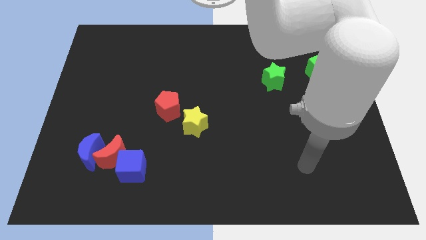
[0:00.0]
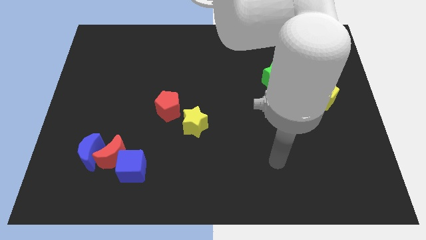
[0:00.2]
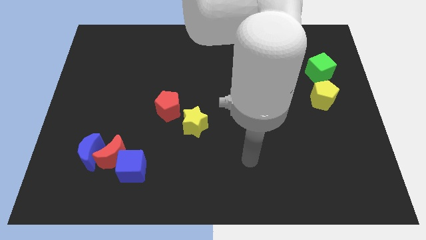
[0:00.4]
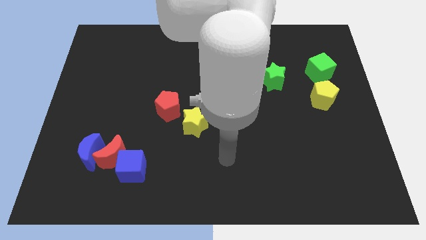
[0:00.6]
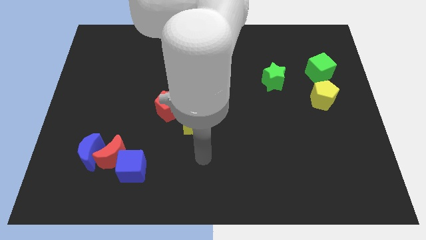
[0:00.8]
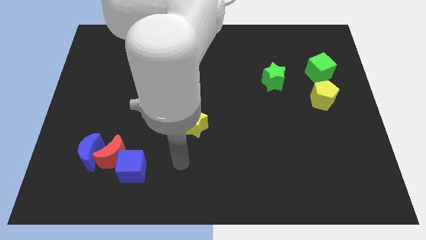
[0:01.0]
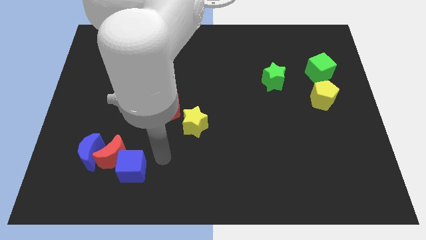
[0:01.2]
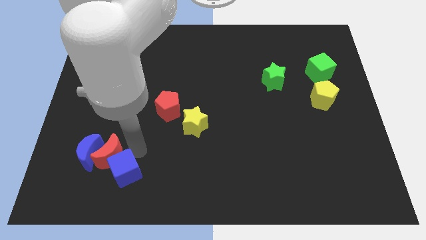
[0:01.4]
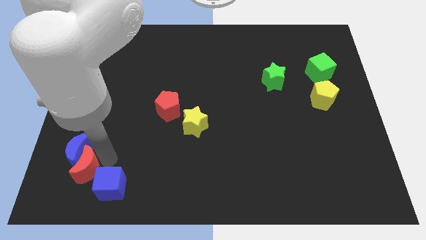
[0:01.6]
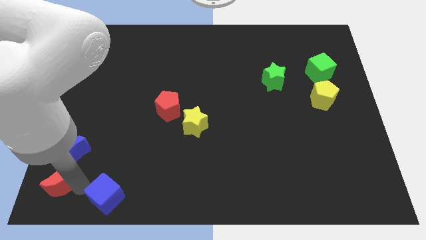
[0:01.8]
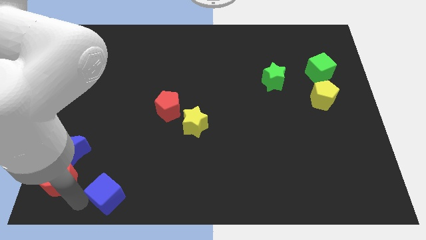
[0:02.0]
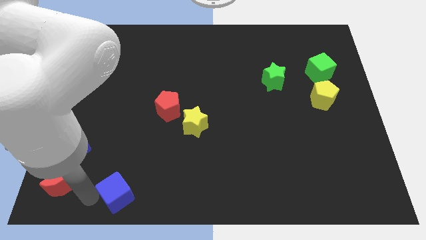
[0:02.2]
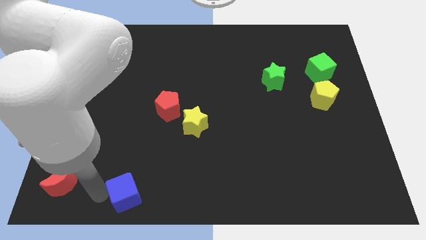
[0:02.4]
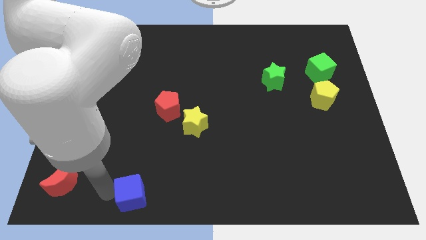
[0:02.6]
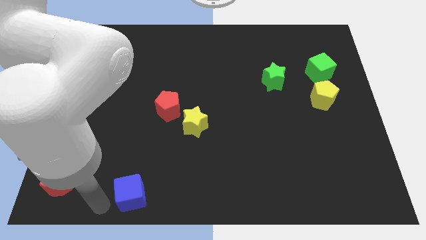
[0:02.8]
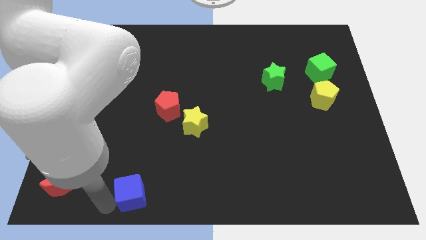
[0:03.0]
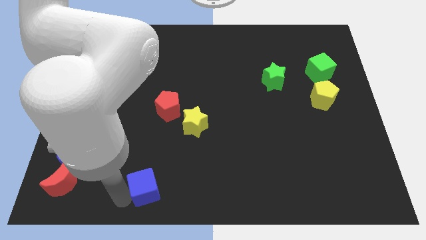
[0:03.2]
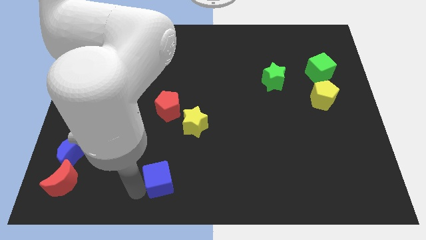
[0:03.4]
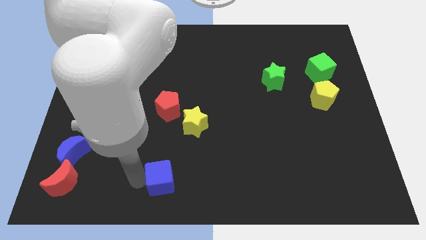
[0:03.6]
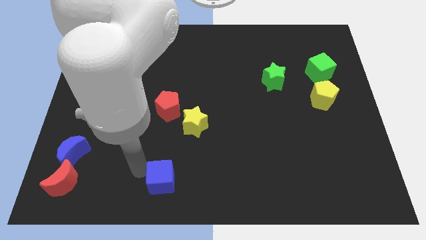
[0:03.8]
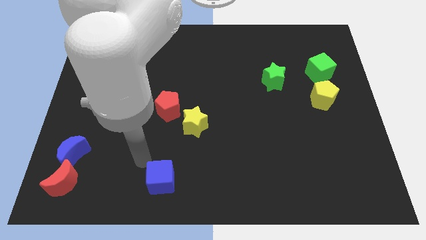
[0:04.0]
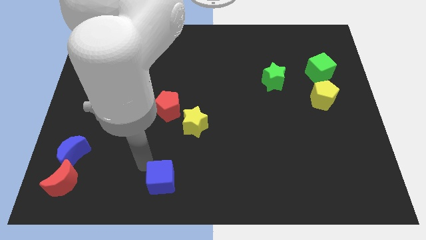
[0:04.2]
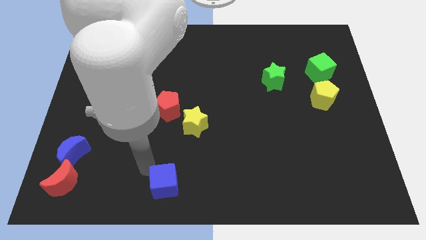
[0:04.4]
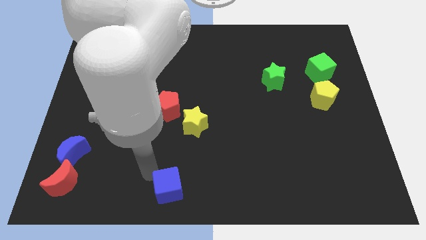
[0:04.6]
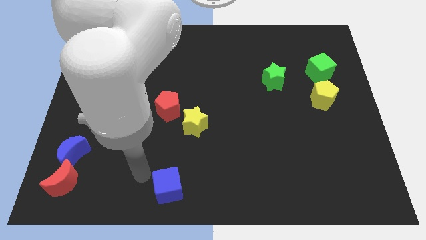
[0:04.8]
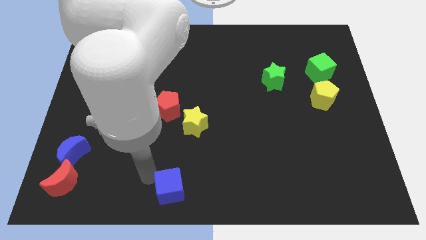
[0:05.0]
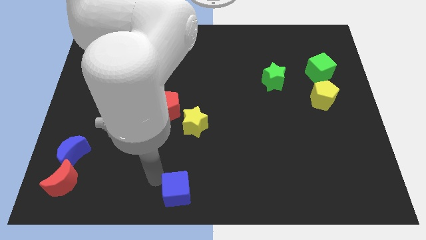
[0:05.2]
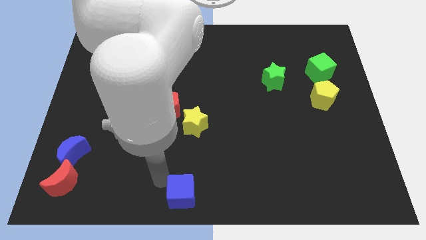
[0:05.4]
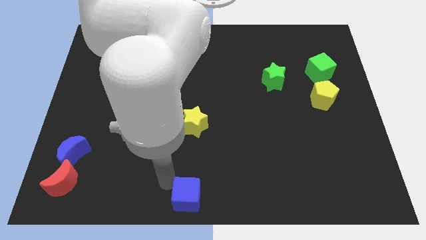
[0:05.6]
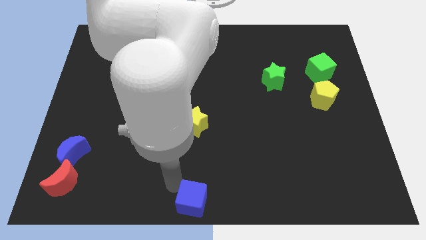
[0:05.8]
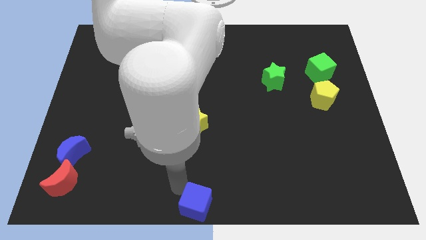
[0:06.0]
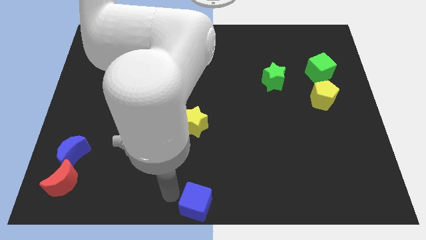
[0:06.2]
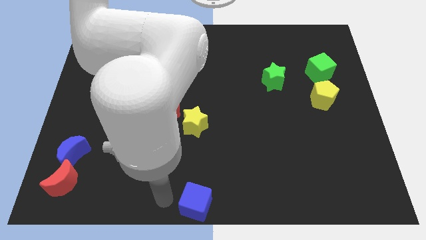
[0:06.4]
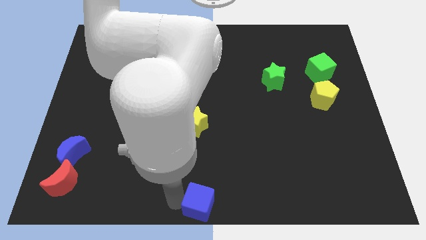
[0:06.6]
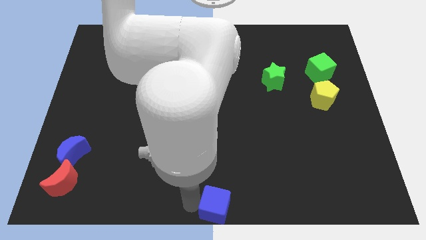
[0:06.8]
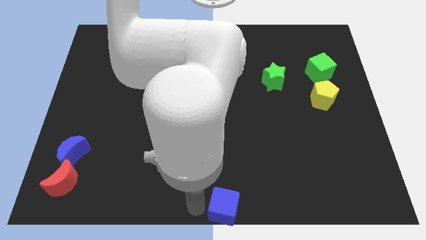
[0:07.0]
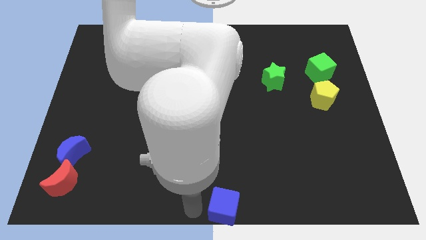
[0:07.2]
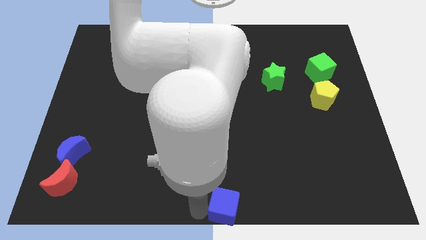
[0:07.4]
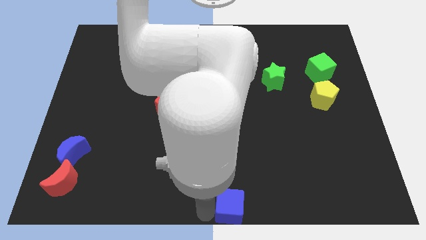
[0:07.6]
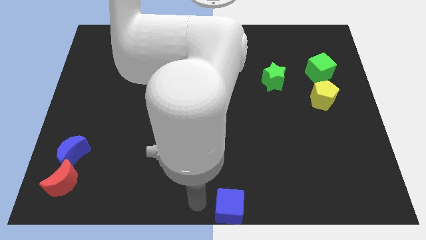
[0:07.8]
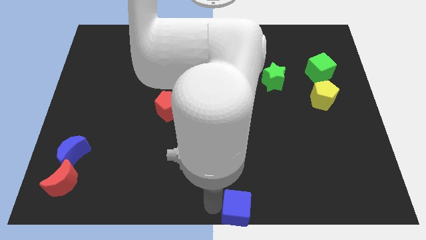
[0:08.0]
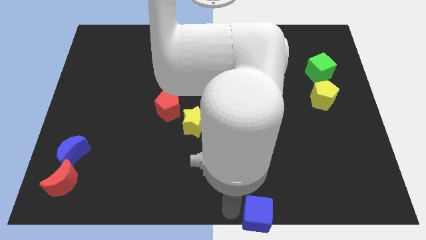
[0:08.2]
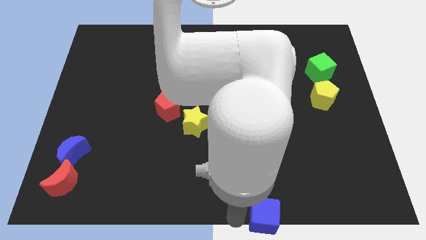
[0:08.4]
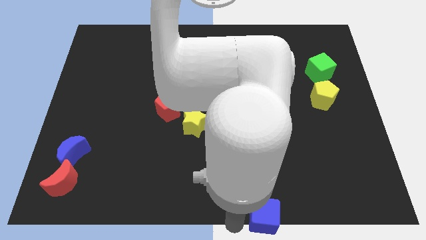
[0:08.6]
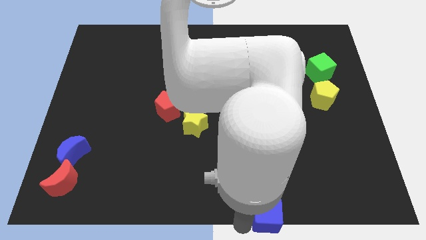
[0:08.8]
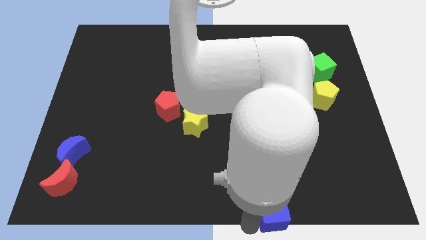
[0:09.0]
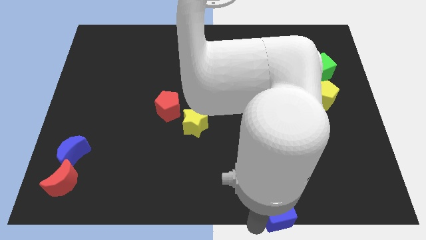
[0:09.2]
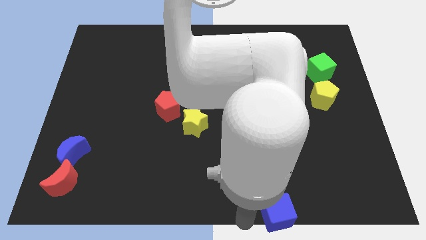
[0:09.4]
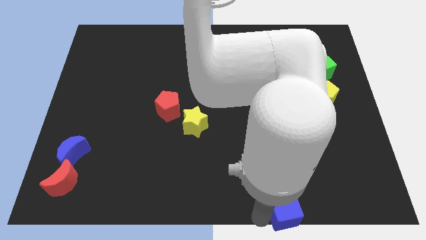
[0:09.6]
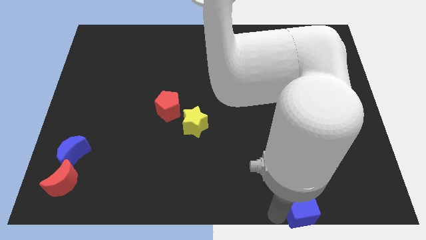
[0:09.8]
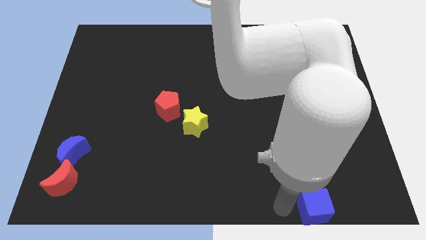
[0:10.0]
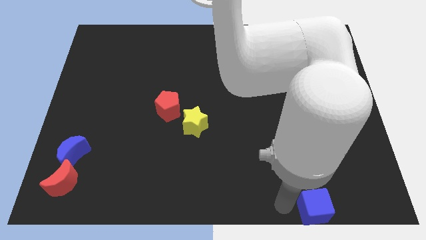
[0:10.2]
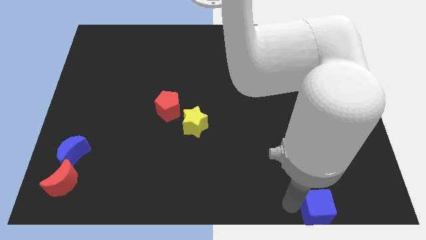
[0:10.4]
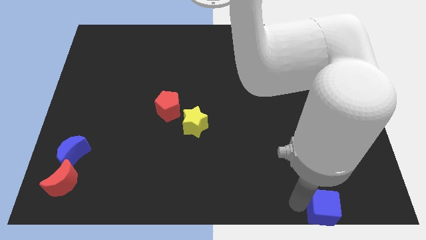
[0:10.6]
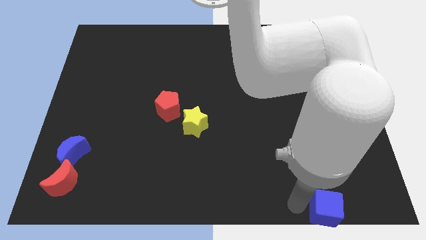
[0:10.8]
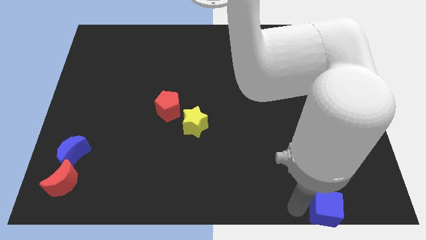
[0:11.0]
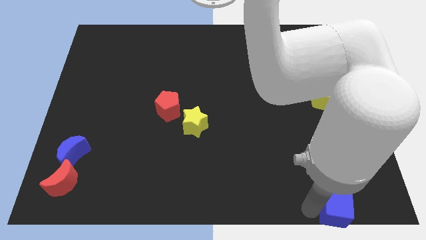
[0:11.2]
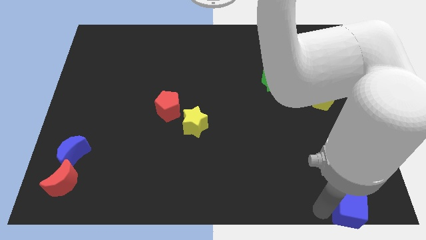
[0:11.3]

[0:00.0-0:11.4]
move the blue cube to the bottom right of the board

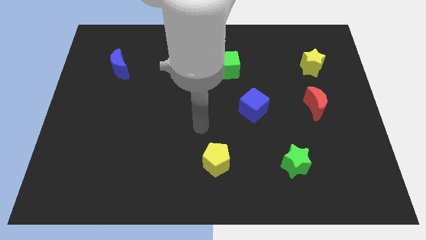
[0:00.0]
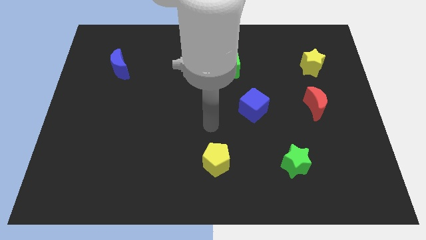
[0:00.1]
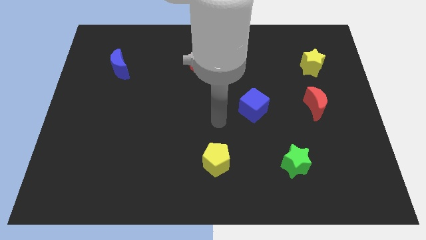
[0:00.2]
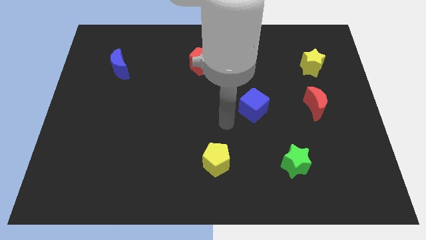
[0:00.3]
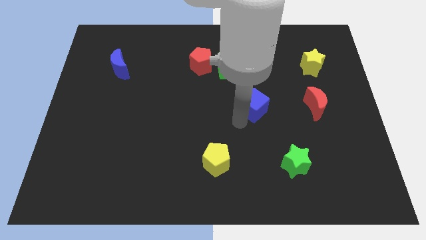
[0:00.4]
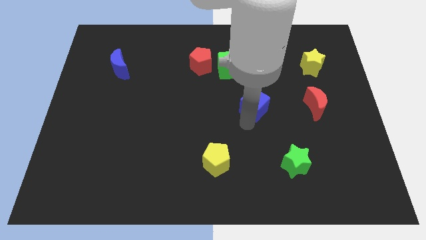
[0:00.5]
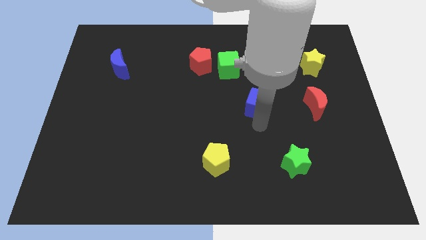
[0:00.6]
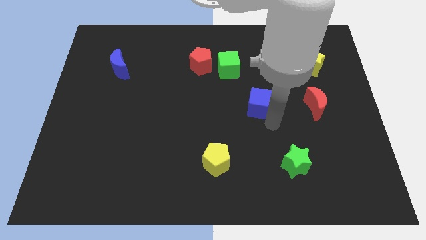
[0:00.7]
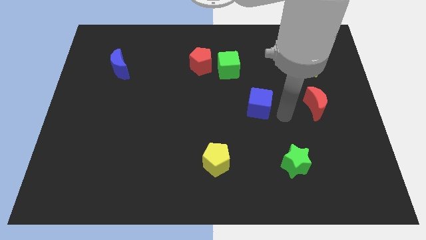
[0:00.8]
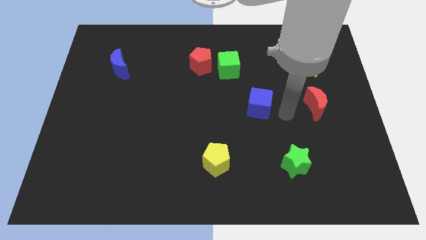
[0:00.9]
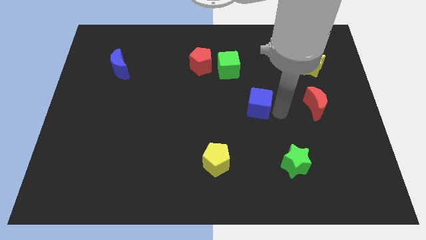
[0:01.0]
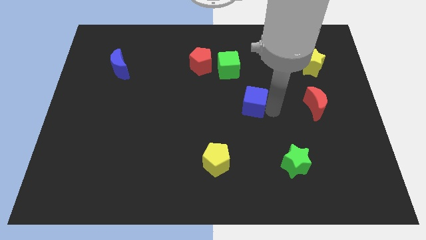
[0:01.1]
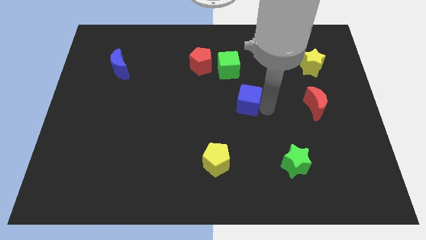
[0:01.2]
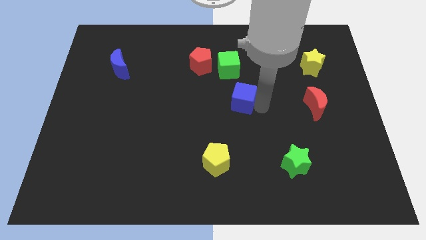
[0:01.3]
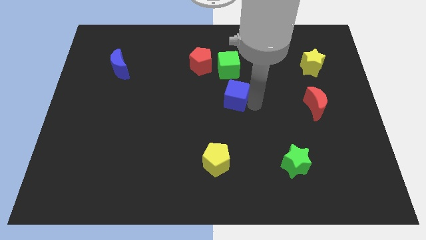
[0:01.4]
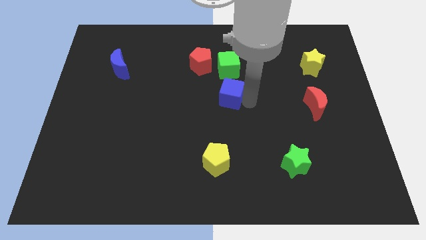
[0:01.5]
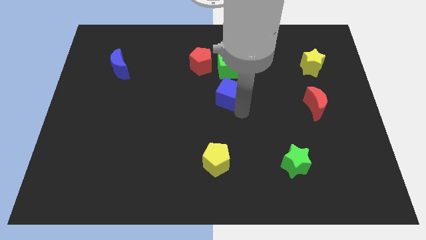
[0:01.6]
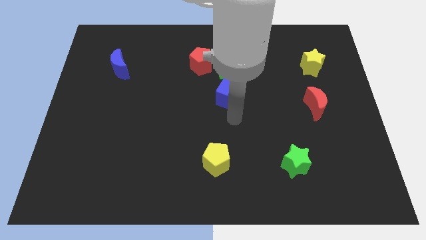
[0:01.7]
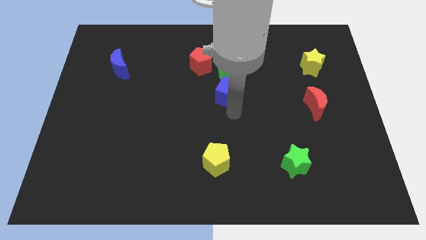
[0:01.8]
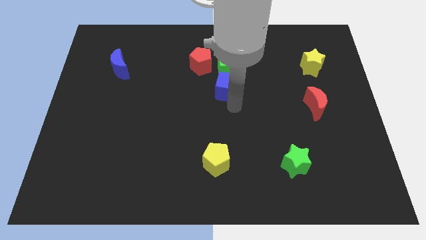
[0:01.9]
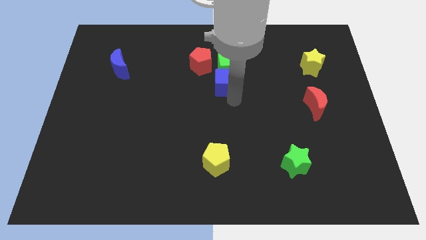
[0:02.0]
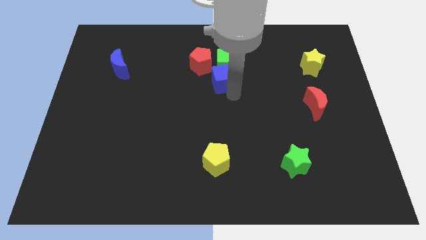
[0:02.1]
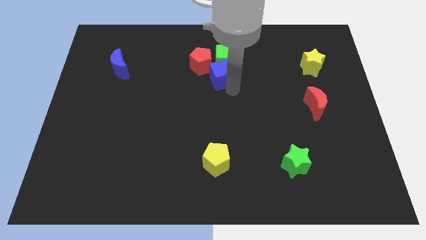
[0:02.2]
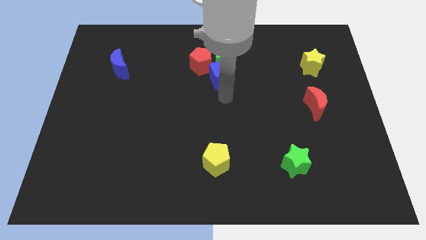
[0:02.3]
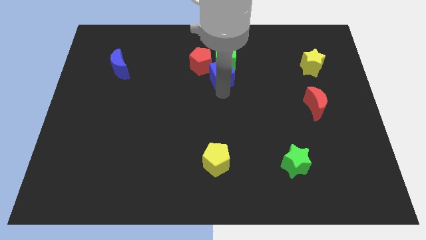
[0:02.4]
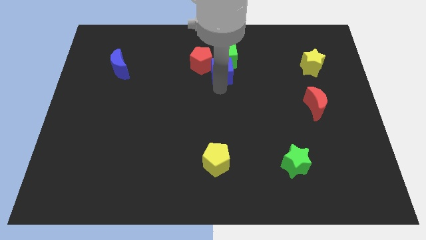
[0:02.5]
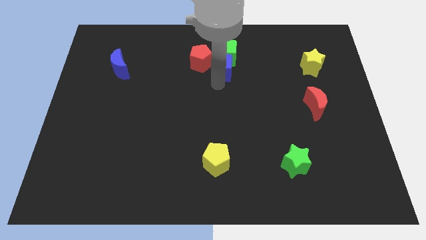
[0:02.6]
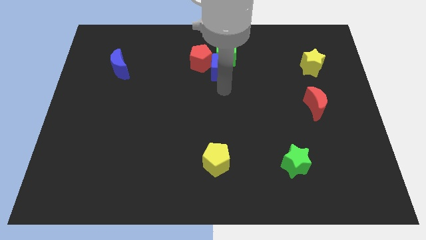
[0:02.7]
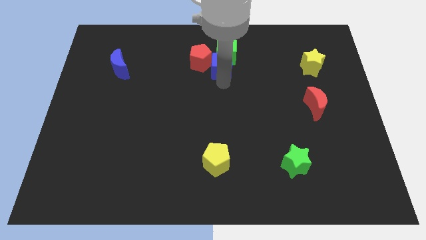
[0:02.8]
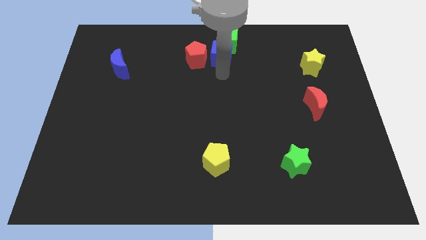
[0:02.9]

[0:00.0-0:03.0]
move the blue cube to the top side
